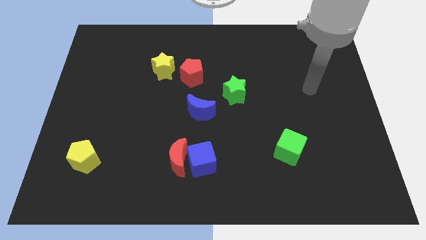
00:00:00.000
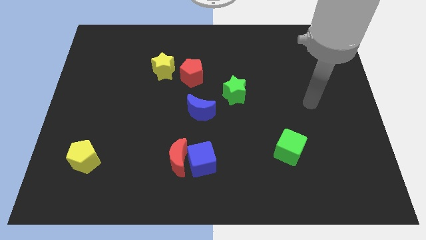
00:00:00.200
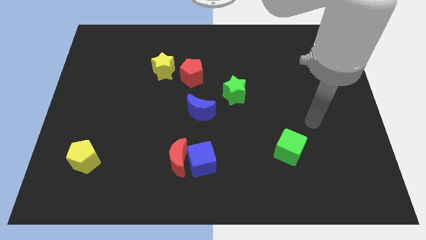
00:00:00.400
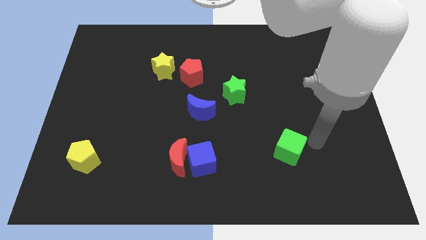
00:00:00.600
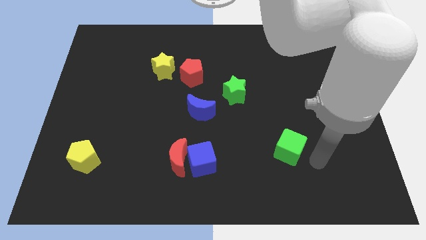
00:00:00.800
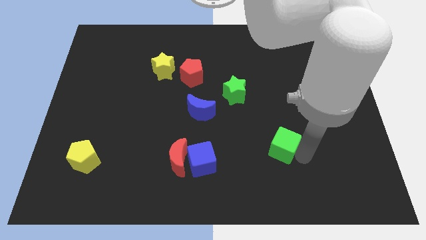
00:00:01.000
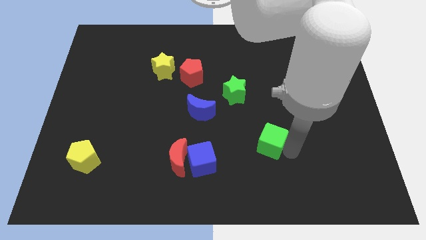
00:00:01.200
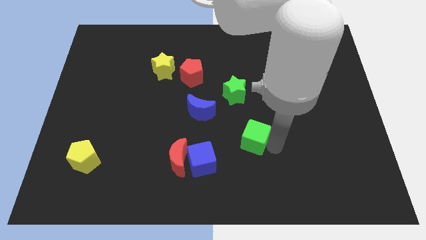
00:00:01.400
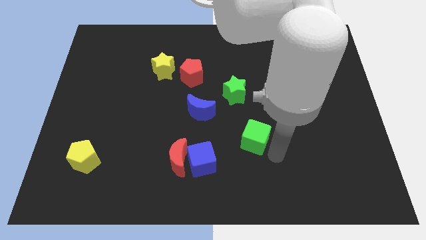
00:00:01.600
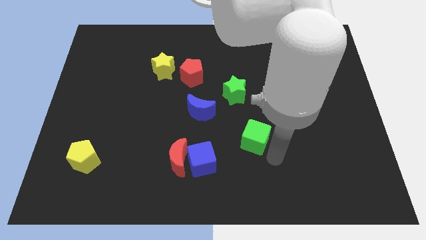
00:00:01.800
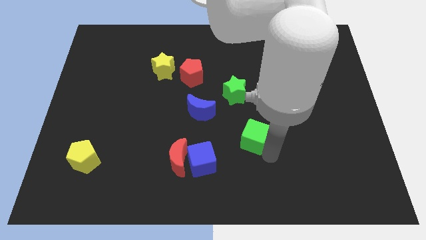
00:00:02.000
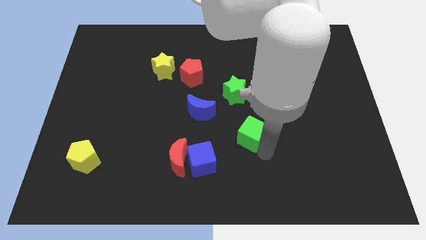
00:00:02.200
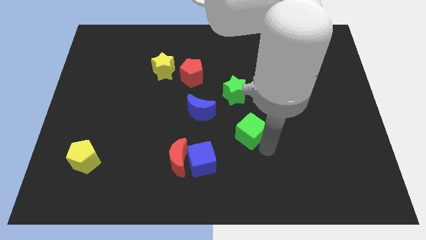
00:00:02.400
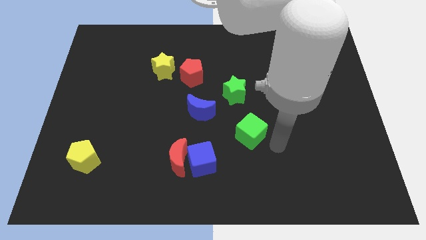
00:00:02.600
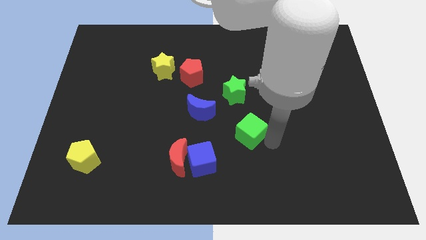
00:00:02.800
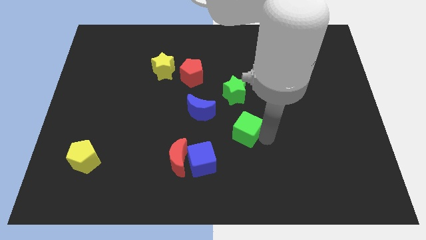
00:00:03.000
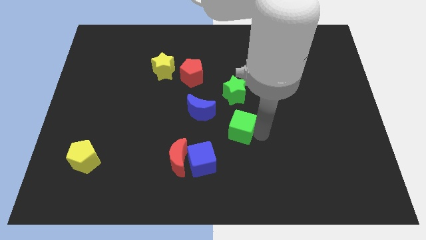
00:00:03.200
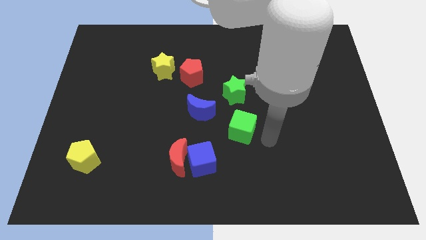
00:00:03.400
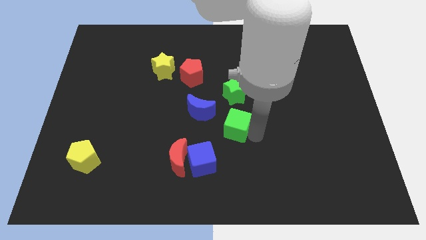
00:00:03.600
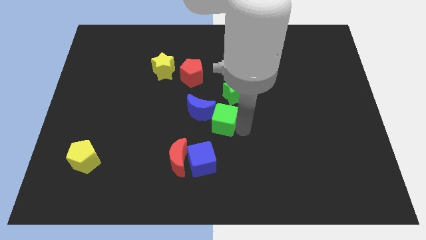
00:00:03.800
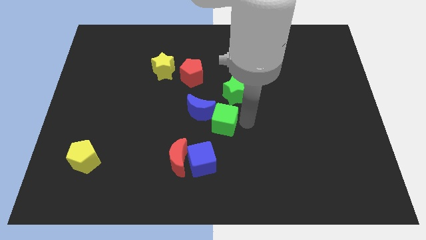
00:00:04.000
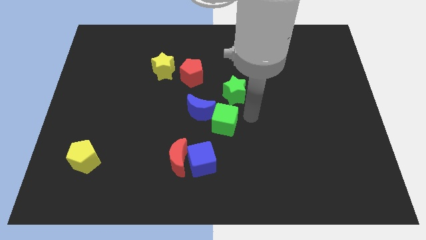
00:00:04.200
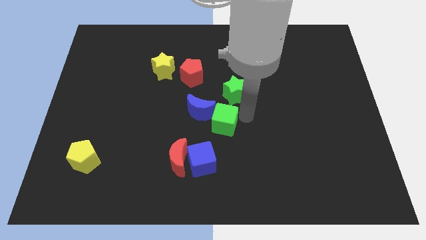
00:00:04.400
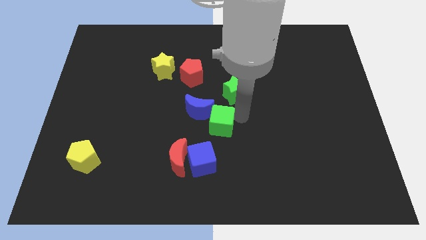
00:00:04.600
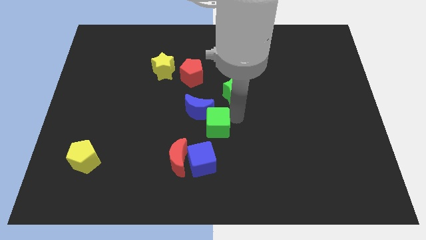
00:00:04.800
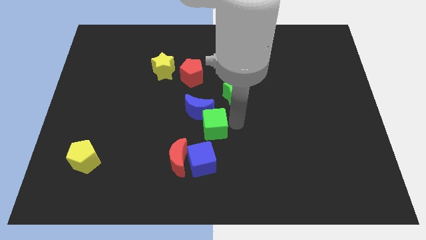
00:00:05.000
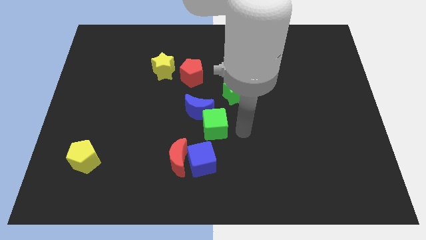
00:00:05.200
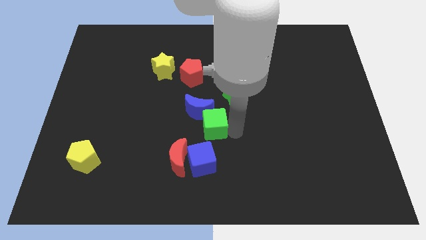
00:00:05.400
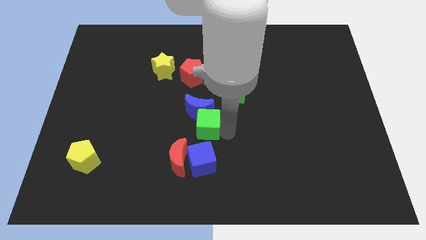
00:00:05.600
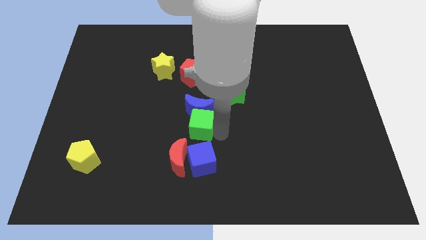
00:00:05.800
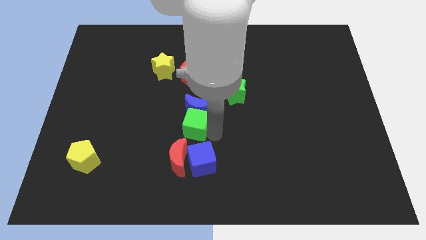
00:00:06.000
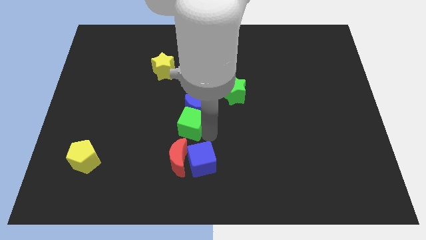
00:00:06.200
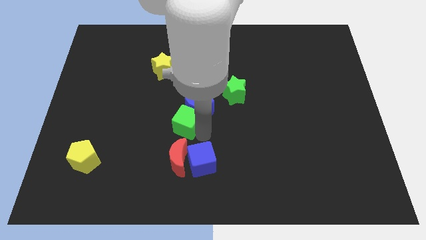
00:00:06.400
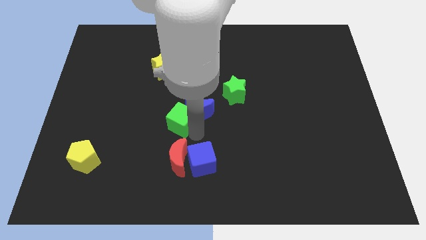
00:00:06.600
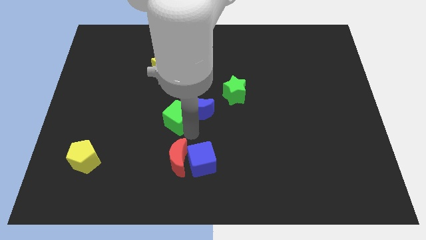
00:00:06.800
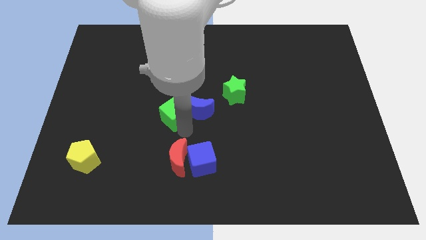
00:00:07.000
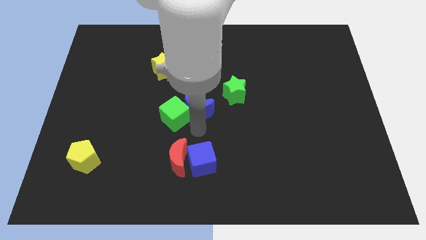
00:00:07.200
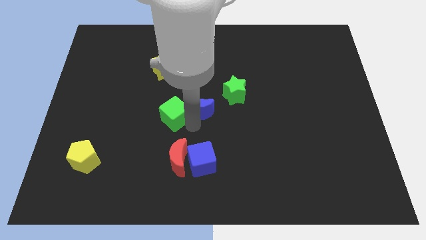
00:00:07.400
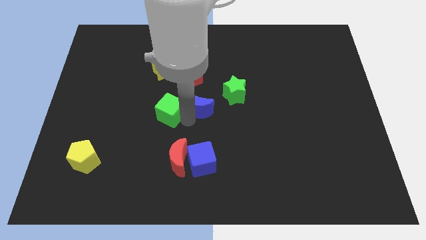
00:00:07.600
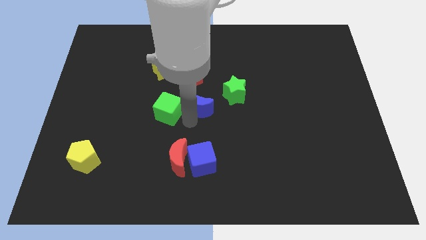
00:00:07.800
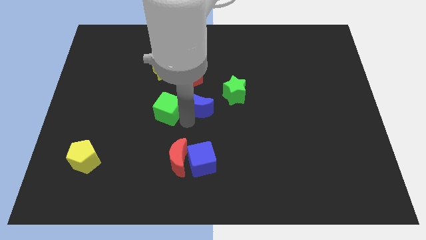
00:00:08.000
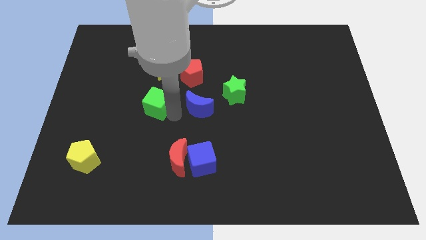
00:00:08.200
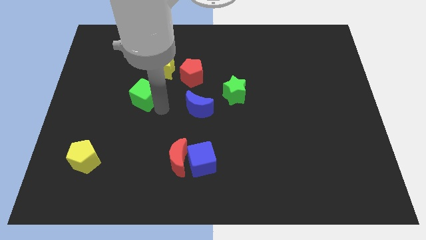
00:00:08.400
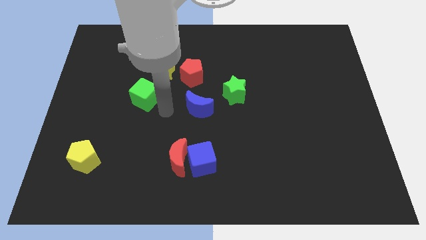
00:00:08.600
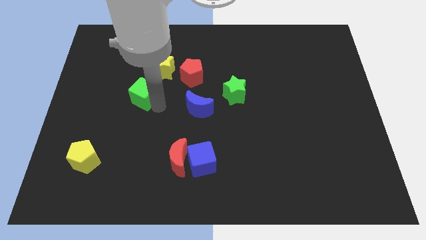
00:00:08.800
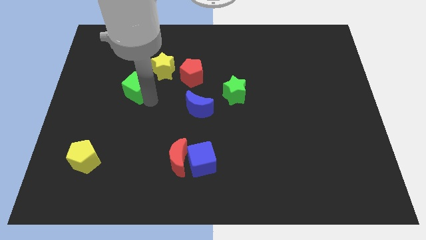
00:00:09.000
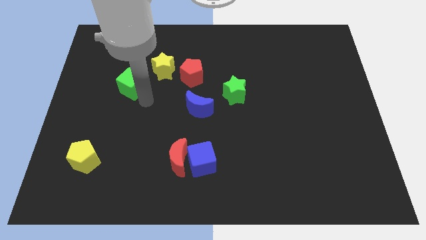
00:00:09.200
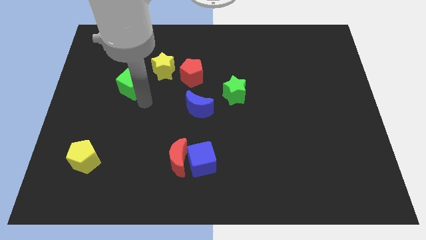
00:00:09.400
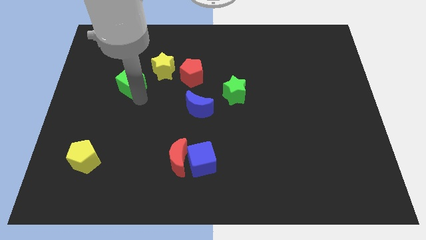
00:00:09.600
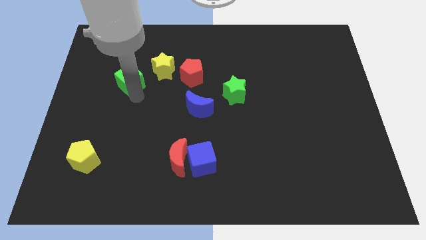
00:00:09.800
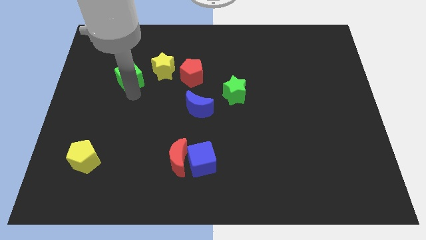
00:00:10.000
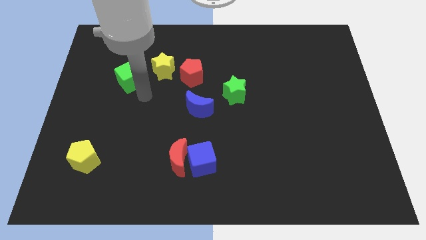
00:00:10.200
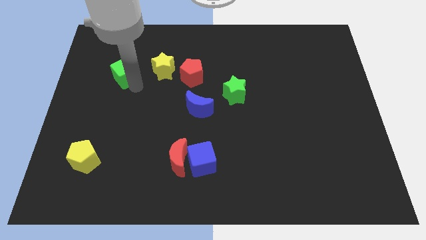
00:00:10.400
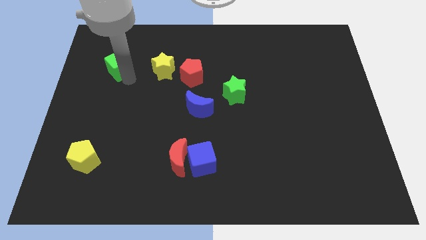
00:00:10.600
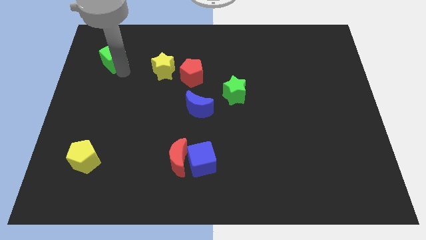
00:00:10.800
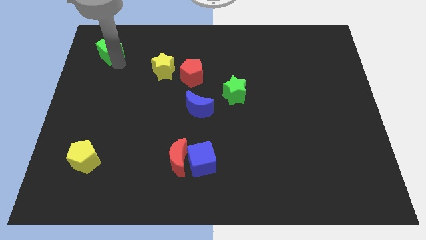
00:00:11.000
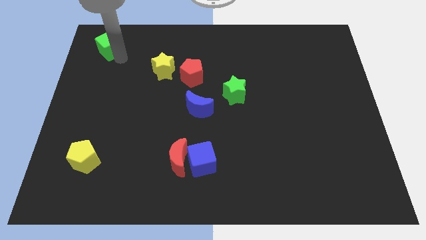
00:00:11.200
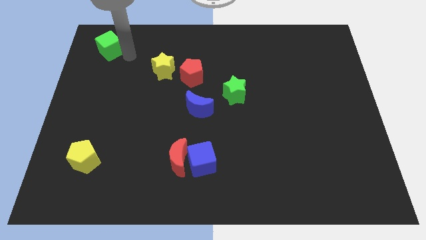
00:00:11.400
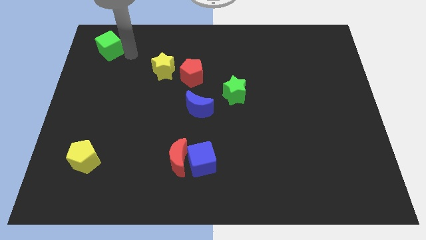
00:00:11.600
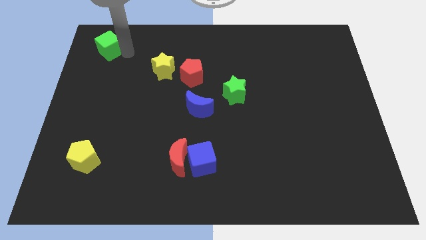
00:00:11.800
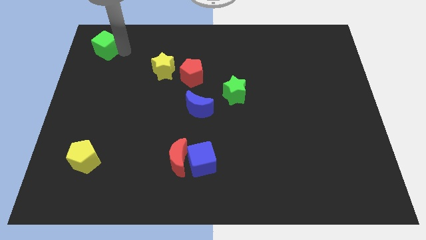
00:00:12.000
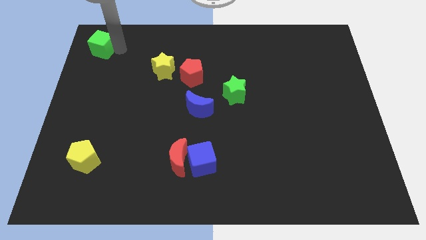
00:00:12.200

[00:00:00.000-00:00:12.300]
move the green cube to the top left
